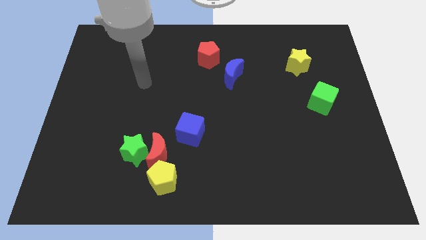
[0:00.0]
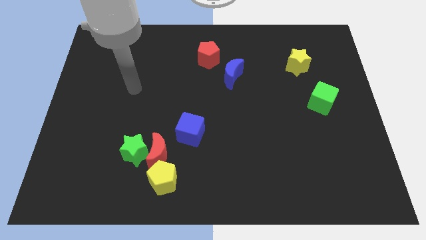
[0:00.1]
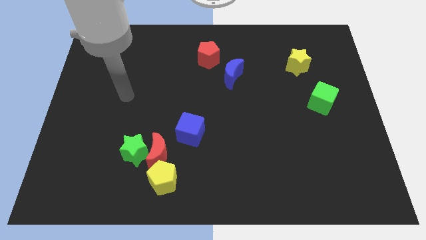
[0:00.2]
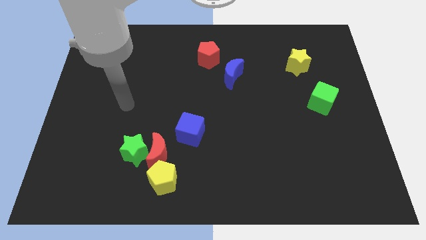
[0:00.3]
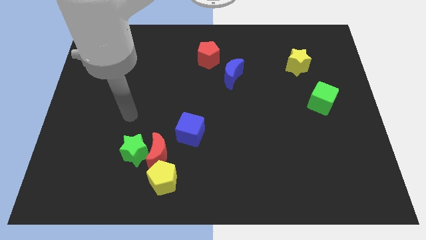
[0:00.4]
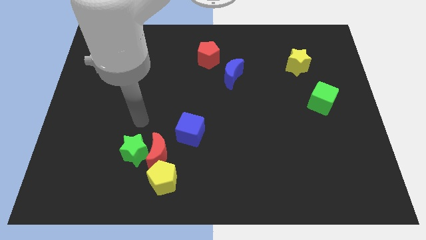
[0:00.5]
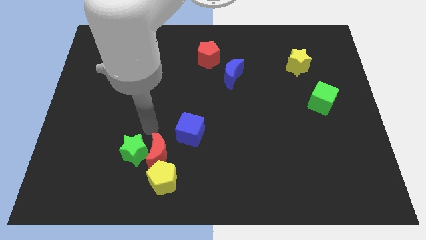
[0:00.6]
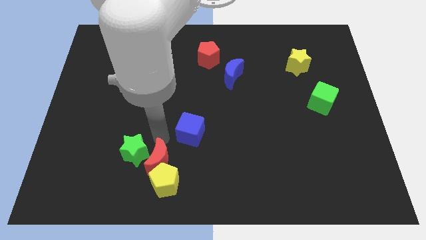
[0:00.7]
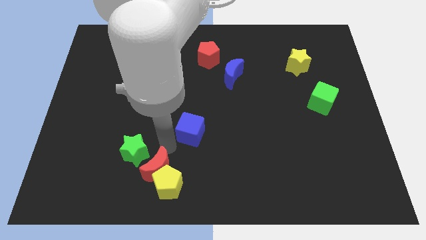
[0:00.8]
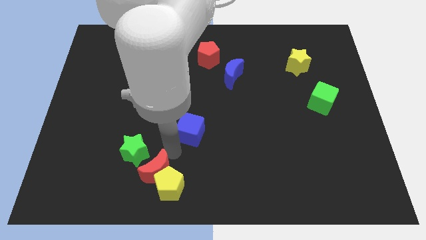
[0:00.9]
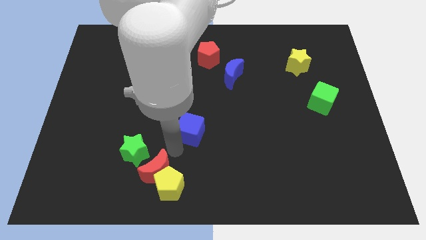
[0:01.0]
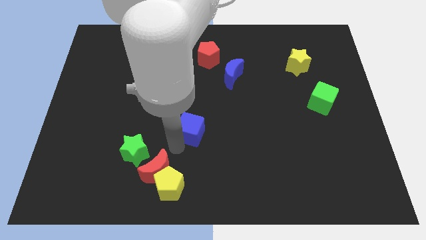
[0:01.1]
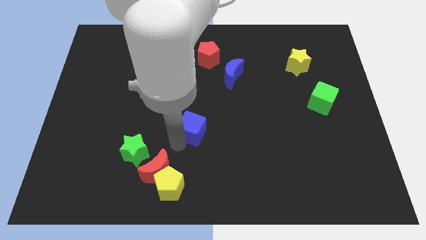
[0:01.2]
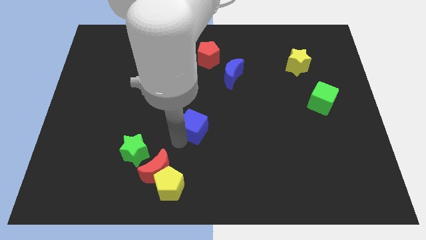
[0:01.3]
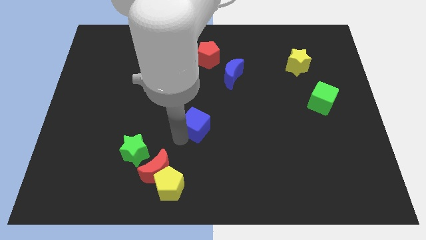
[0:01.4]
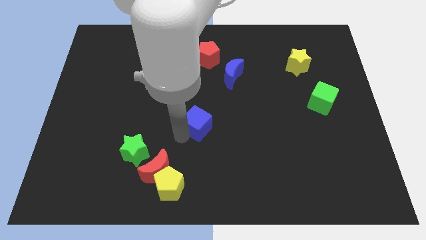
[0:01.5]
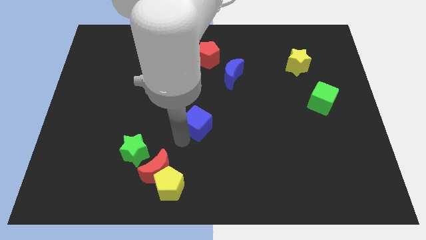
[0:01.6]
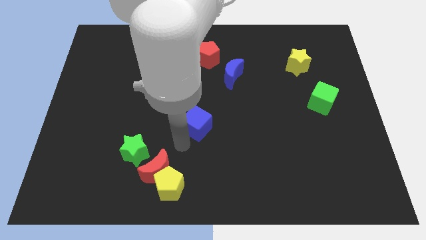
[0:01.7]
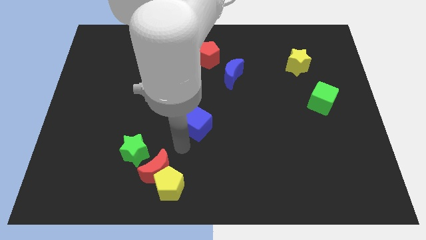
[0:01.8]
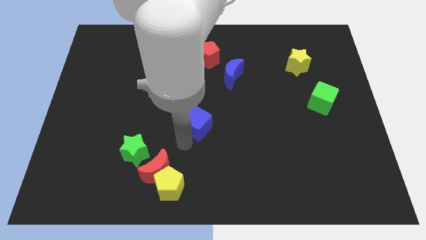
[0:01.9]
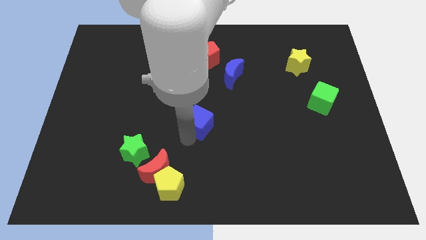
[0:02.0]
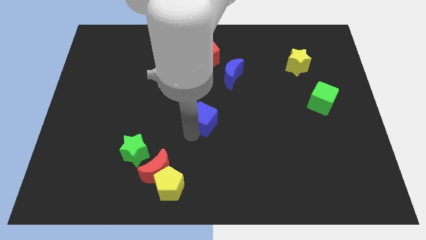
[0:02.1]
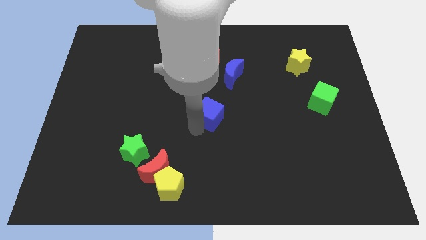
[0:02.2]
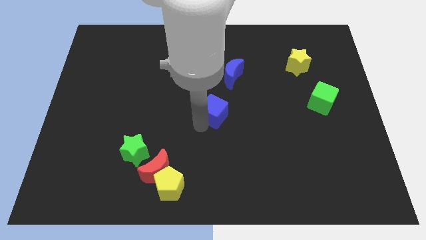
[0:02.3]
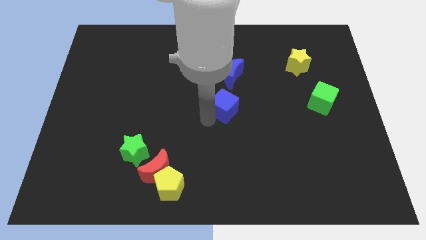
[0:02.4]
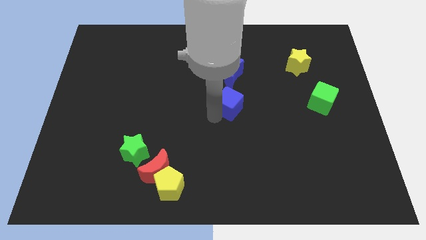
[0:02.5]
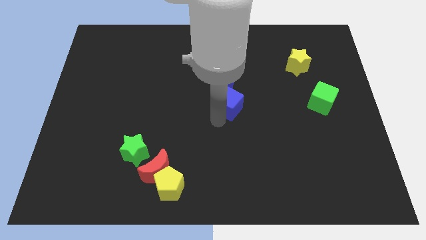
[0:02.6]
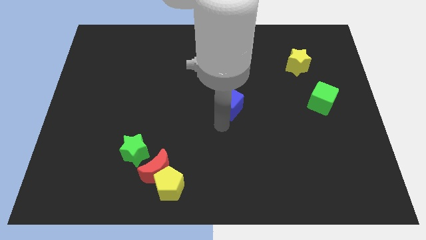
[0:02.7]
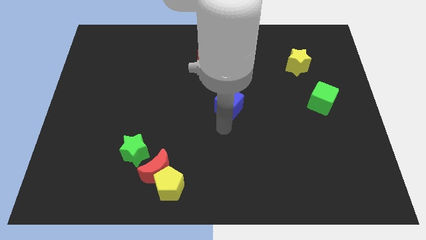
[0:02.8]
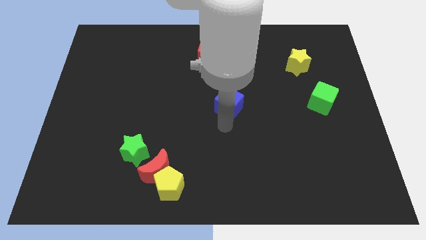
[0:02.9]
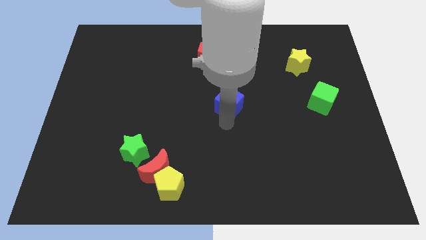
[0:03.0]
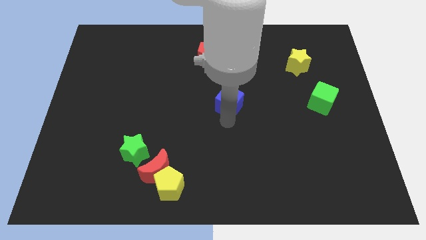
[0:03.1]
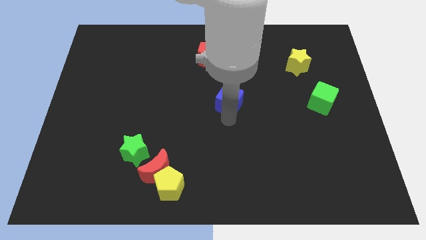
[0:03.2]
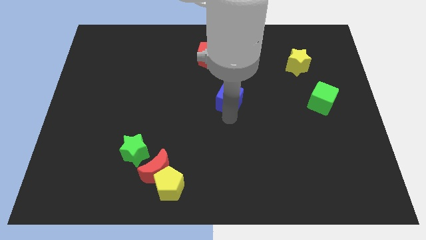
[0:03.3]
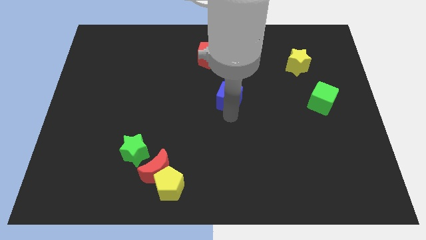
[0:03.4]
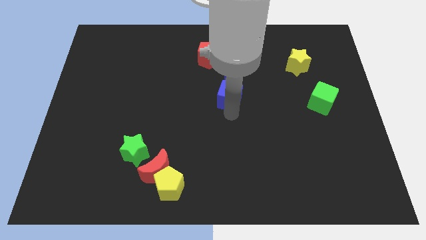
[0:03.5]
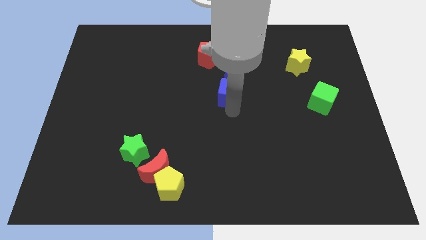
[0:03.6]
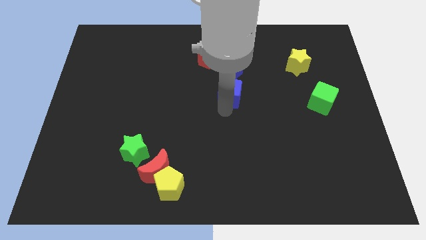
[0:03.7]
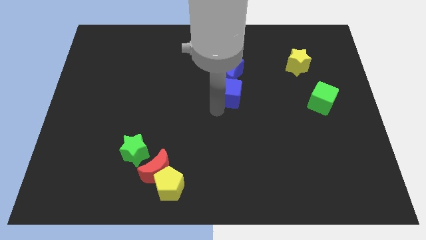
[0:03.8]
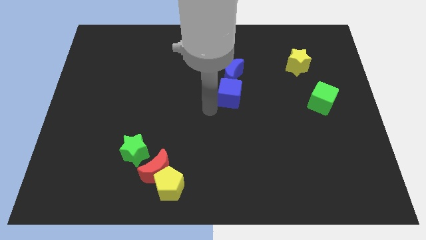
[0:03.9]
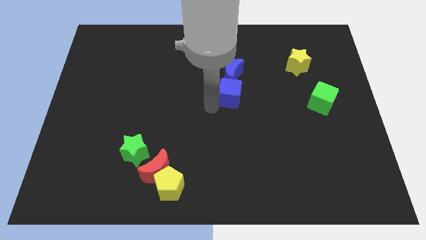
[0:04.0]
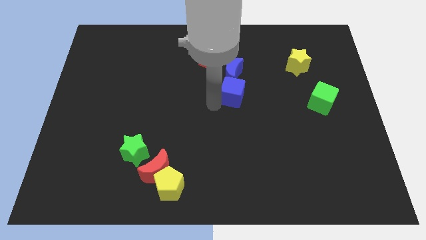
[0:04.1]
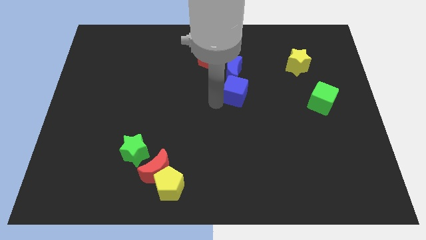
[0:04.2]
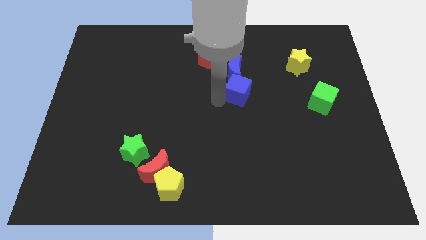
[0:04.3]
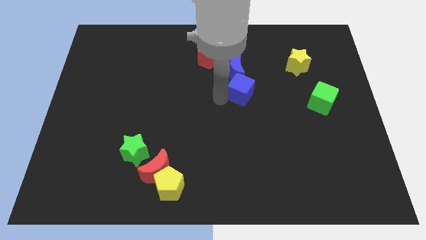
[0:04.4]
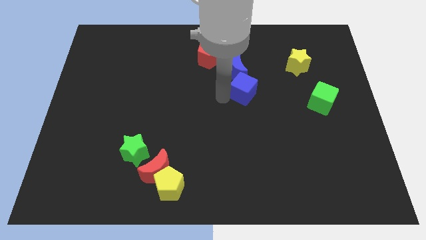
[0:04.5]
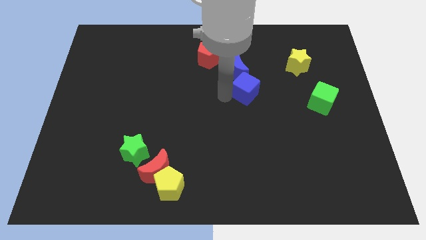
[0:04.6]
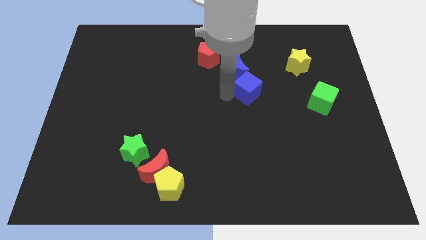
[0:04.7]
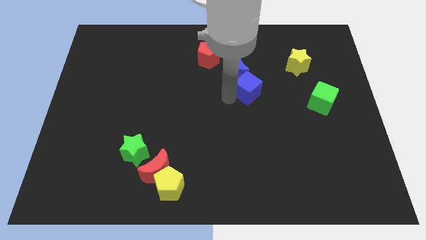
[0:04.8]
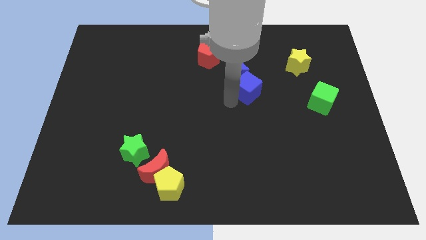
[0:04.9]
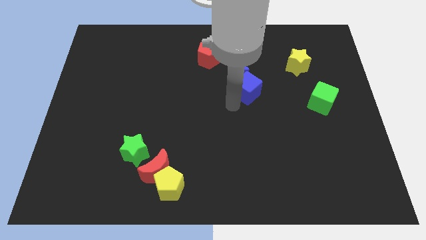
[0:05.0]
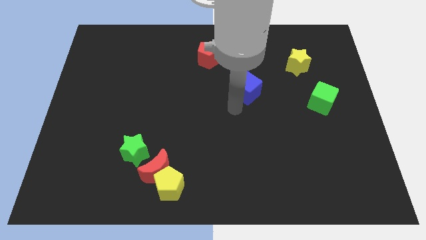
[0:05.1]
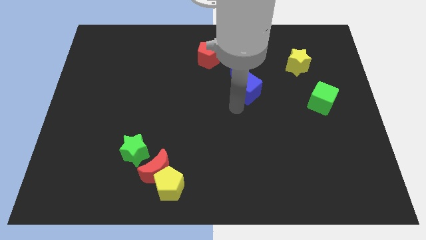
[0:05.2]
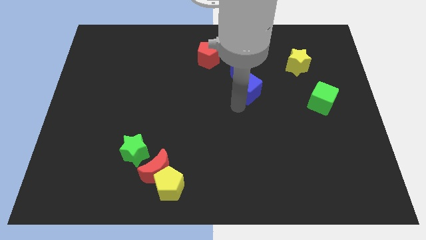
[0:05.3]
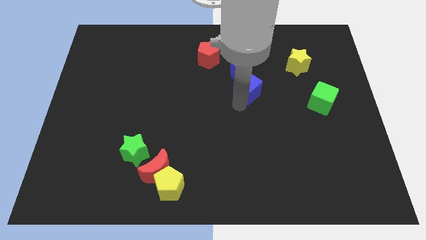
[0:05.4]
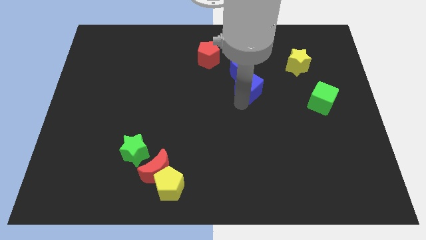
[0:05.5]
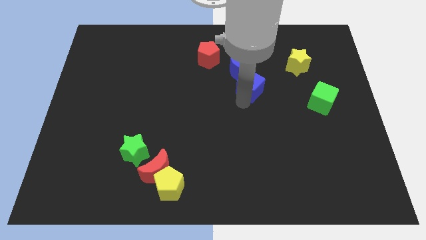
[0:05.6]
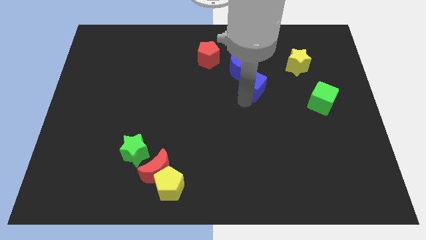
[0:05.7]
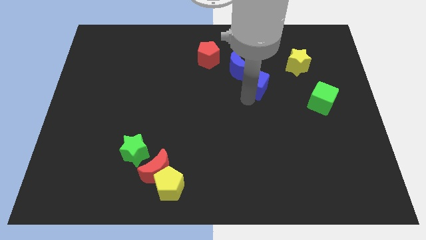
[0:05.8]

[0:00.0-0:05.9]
slide the blue cube upwards and right

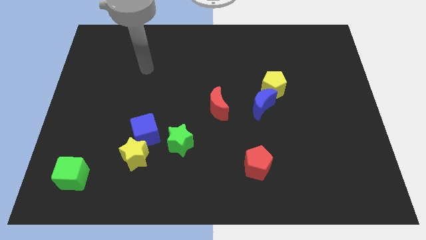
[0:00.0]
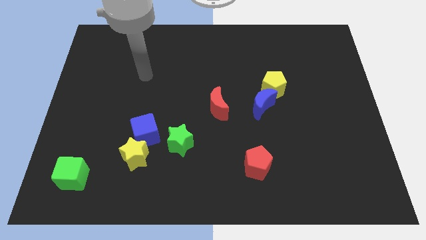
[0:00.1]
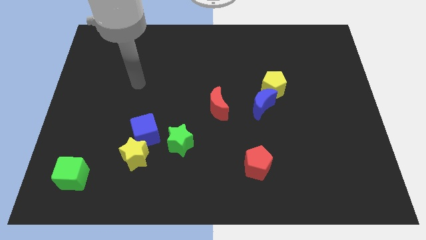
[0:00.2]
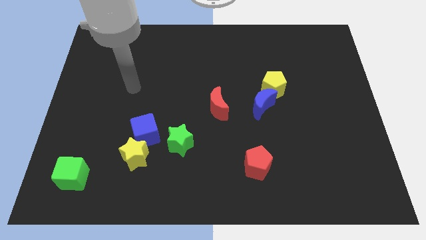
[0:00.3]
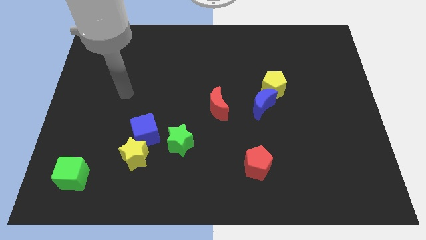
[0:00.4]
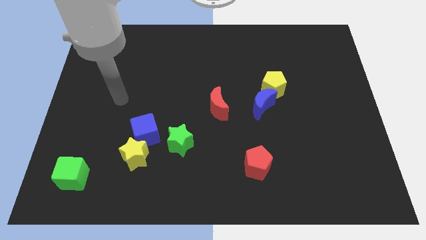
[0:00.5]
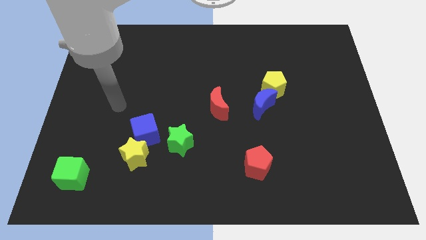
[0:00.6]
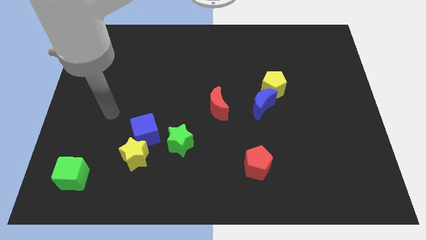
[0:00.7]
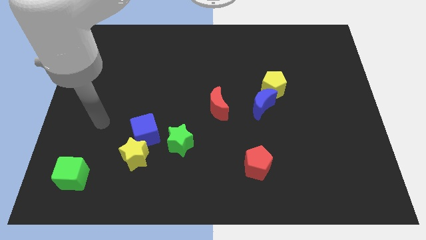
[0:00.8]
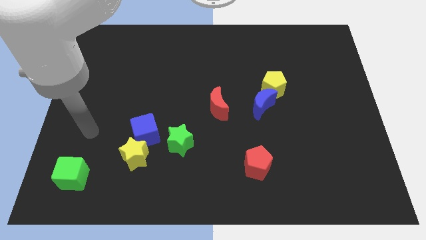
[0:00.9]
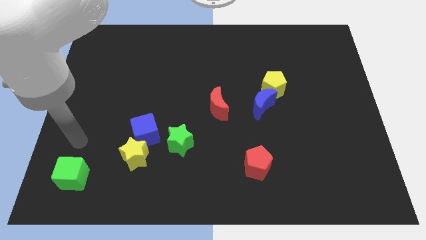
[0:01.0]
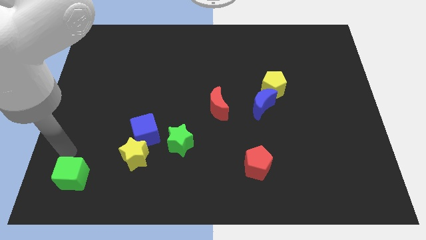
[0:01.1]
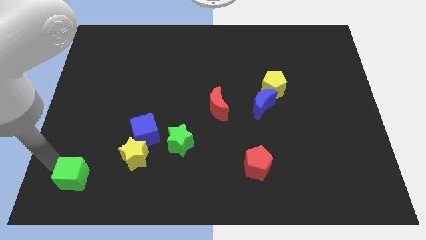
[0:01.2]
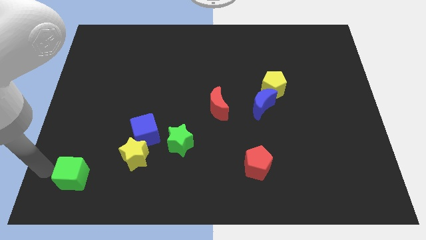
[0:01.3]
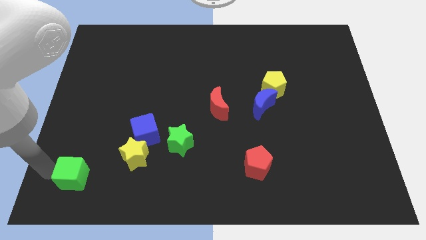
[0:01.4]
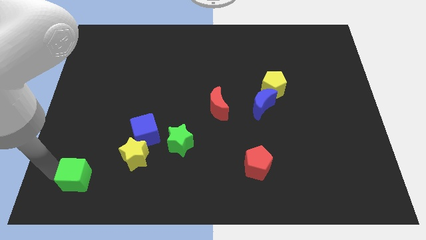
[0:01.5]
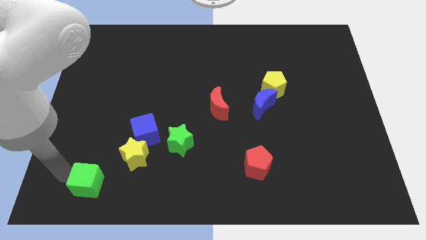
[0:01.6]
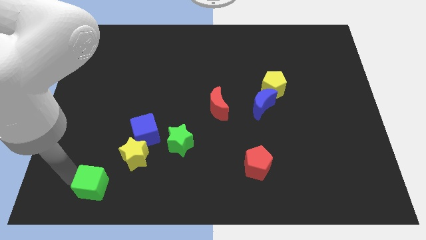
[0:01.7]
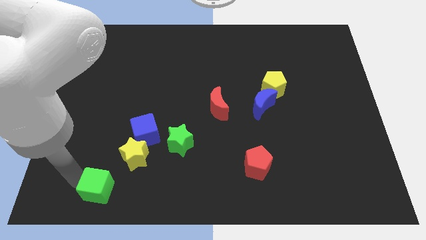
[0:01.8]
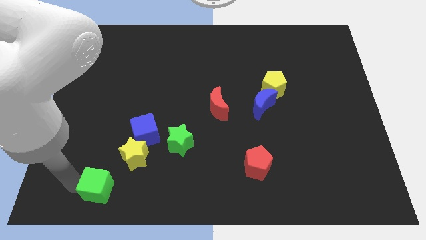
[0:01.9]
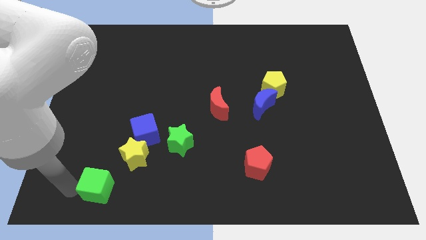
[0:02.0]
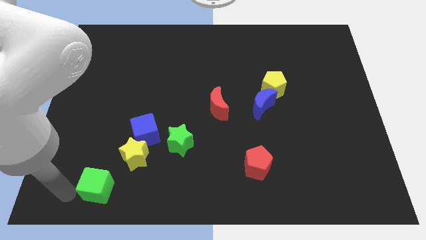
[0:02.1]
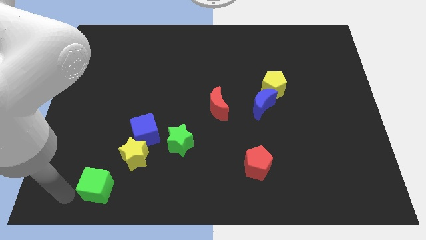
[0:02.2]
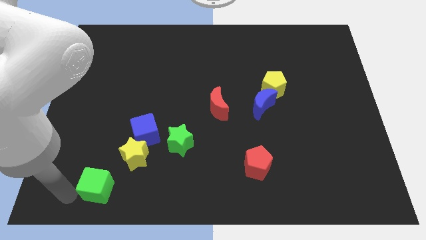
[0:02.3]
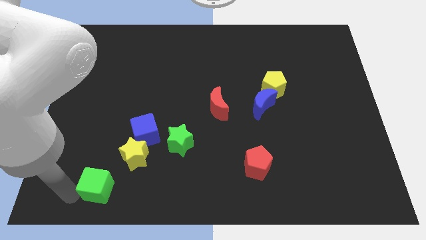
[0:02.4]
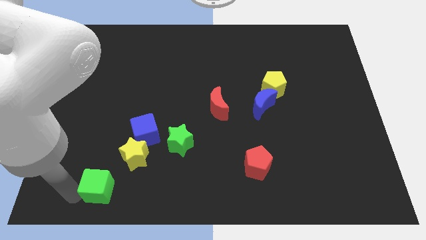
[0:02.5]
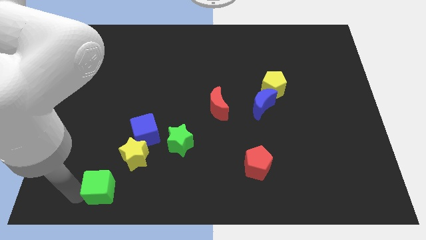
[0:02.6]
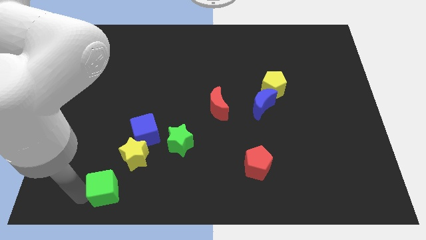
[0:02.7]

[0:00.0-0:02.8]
slightly push the green cube to the right
